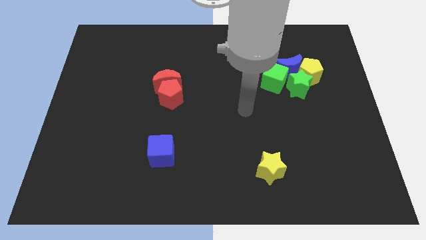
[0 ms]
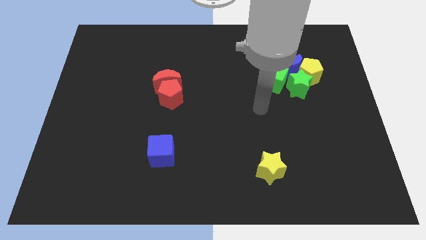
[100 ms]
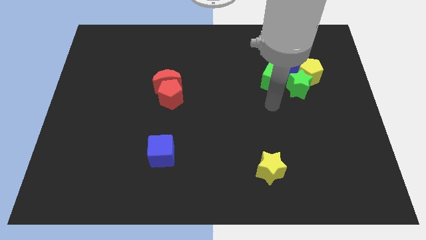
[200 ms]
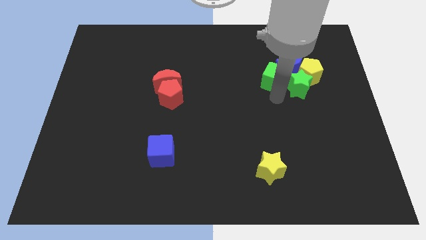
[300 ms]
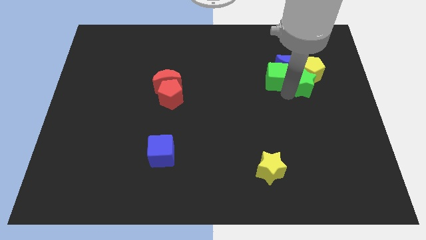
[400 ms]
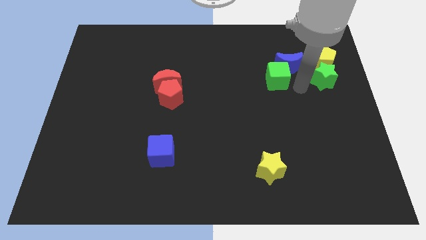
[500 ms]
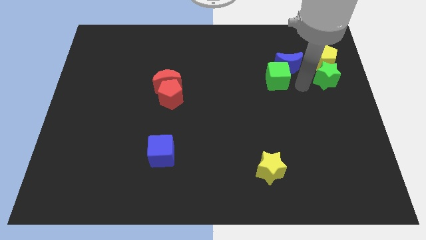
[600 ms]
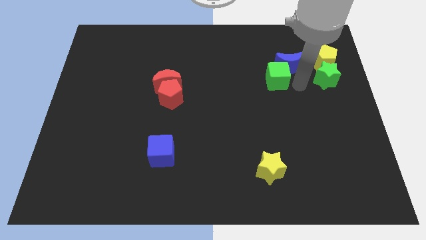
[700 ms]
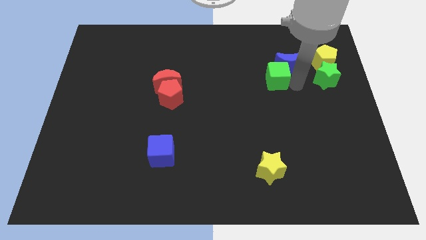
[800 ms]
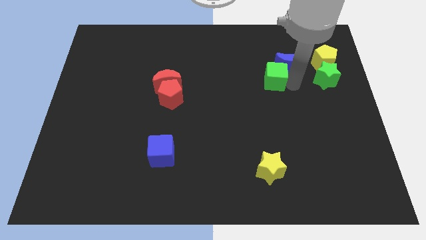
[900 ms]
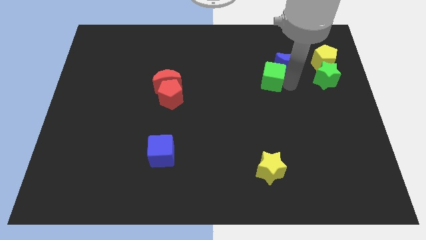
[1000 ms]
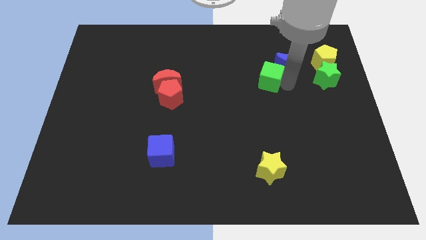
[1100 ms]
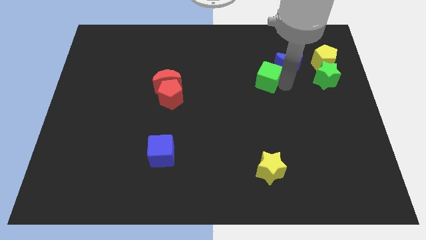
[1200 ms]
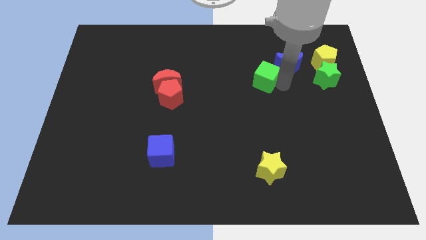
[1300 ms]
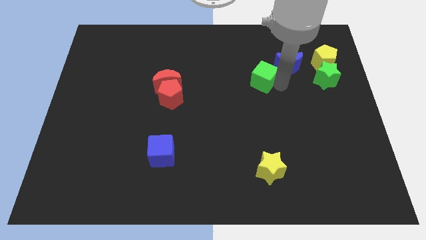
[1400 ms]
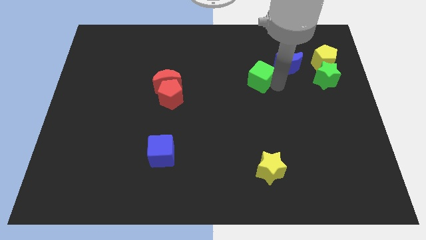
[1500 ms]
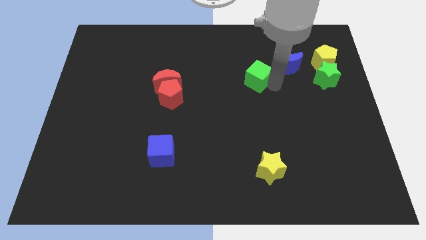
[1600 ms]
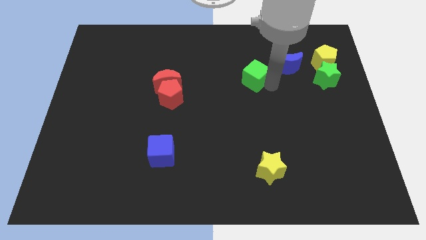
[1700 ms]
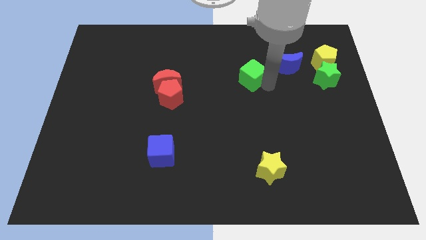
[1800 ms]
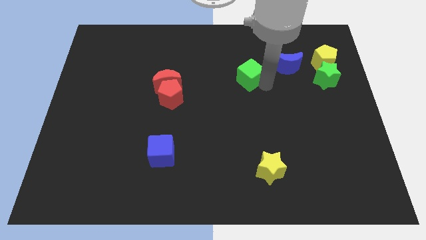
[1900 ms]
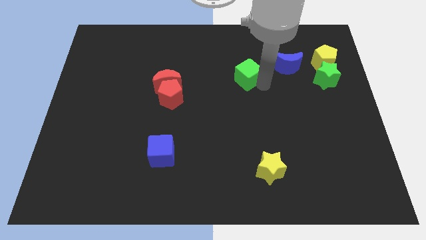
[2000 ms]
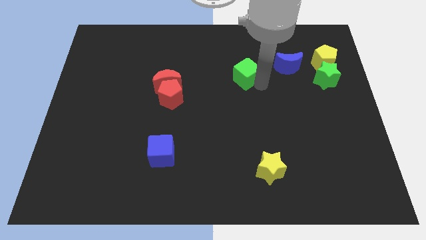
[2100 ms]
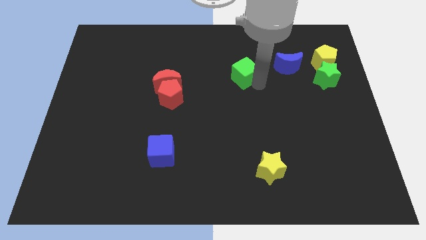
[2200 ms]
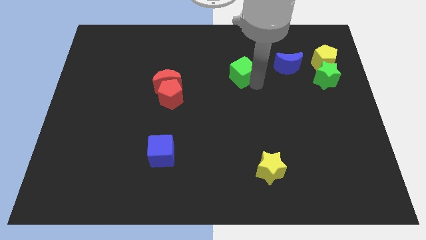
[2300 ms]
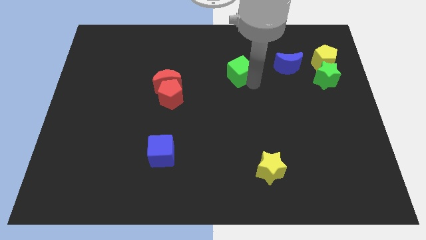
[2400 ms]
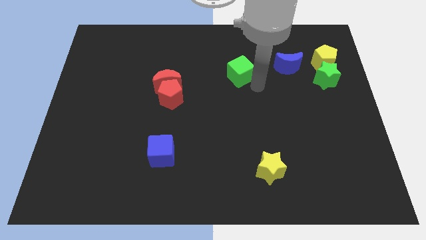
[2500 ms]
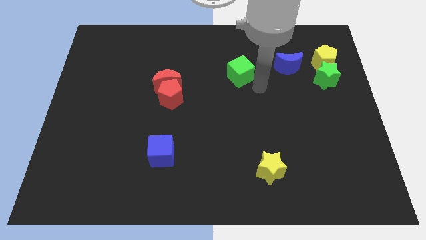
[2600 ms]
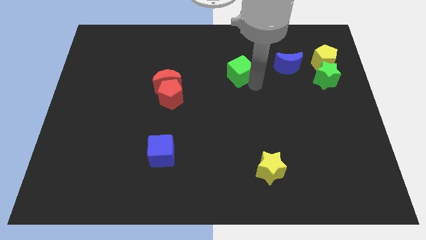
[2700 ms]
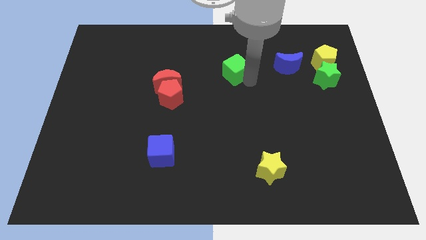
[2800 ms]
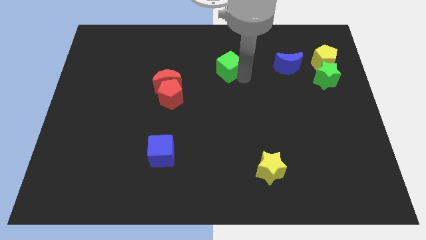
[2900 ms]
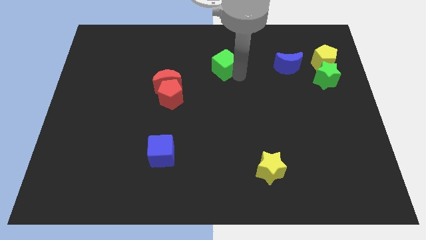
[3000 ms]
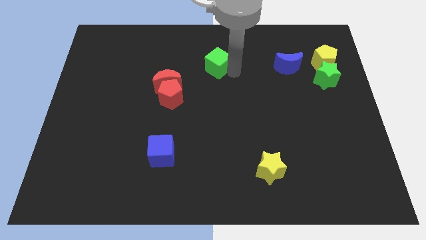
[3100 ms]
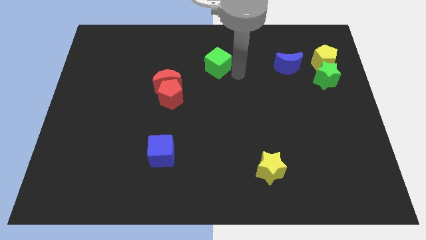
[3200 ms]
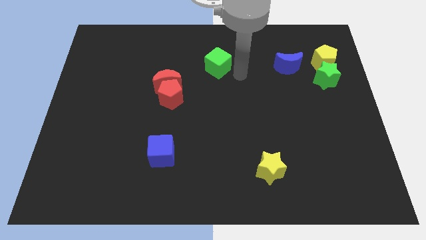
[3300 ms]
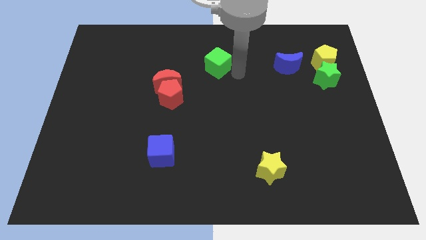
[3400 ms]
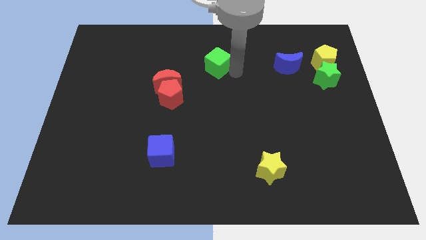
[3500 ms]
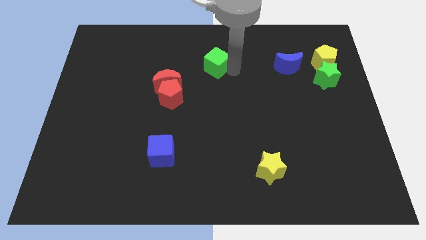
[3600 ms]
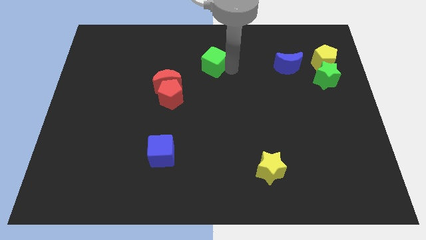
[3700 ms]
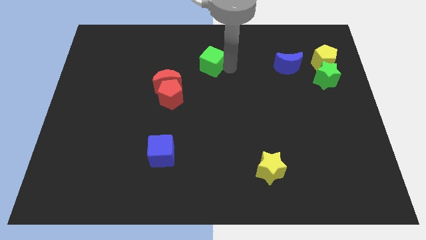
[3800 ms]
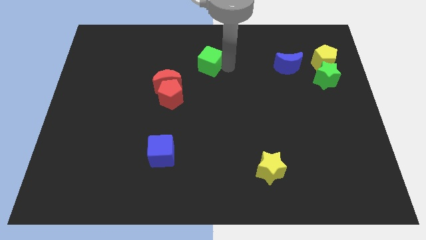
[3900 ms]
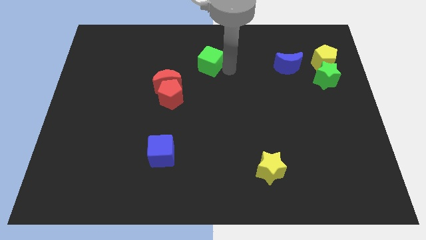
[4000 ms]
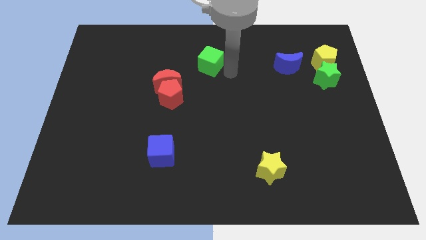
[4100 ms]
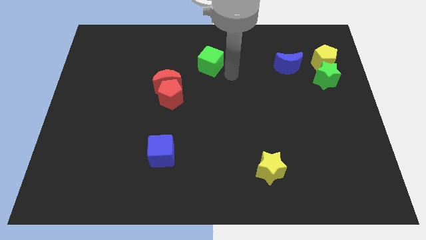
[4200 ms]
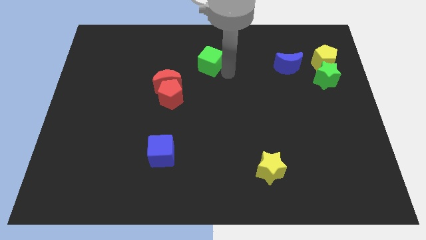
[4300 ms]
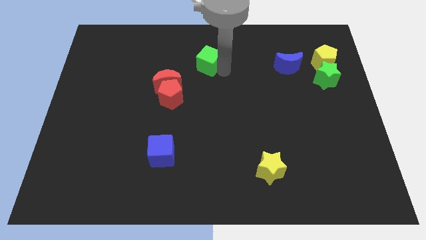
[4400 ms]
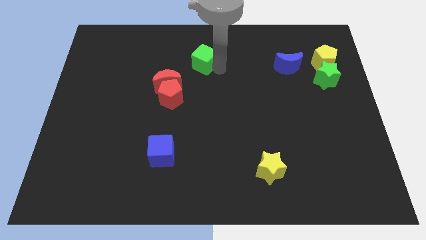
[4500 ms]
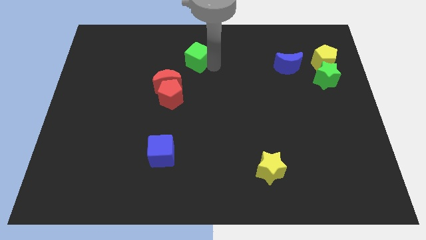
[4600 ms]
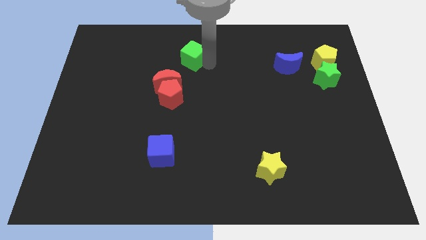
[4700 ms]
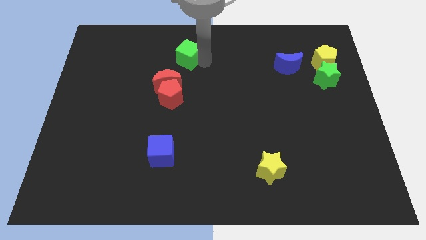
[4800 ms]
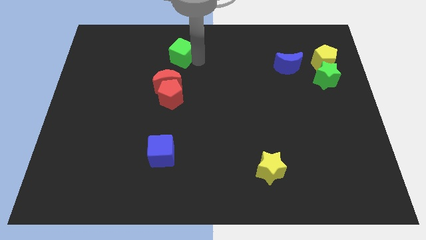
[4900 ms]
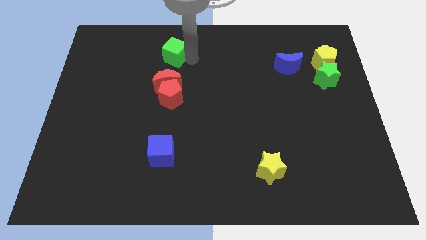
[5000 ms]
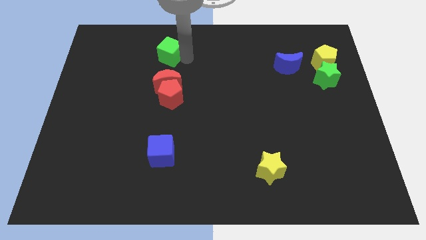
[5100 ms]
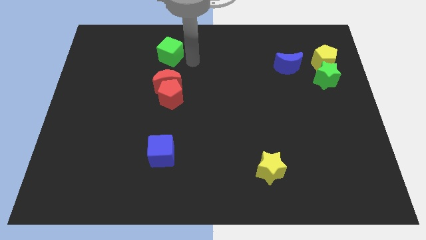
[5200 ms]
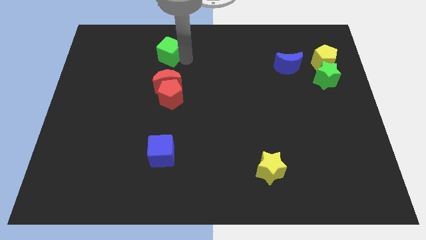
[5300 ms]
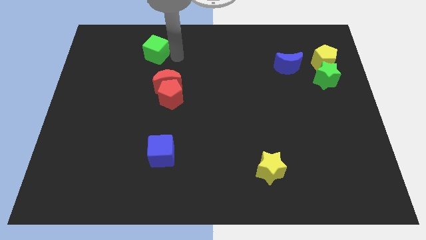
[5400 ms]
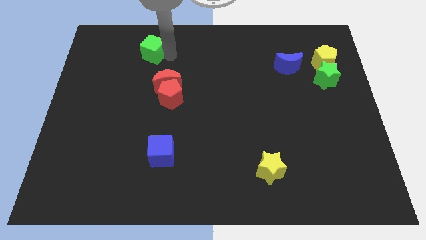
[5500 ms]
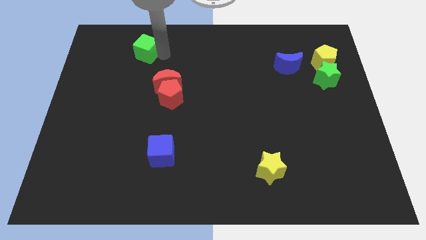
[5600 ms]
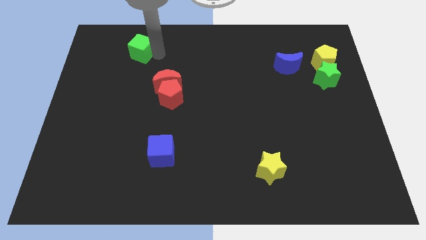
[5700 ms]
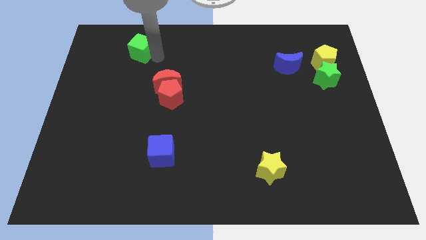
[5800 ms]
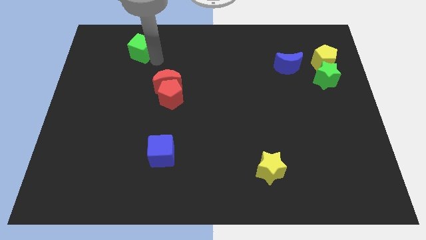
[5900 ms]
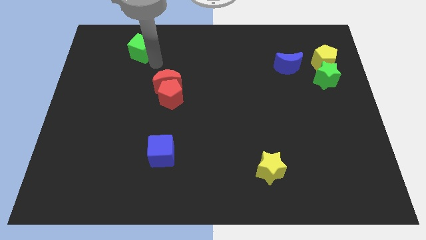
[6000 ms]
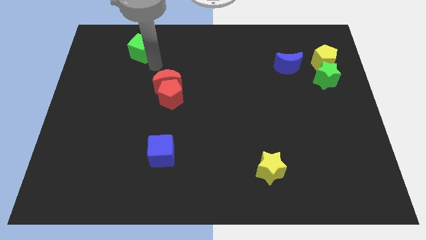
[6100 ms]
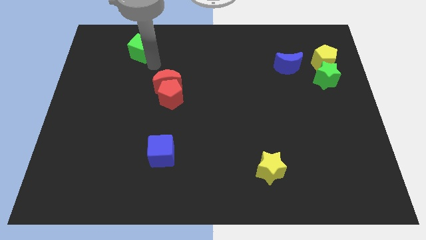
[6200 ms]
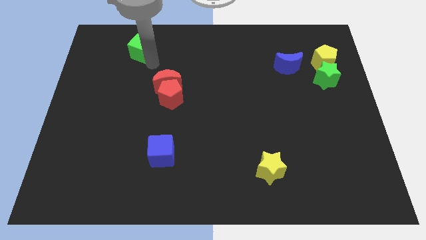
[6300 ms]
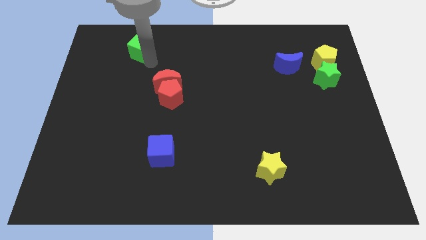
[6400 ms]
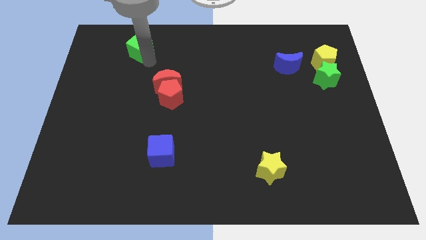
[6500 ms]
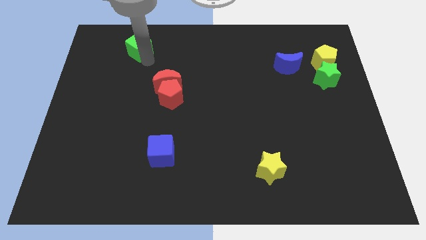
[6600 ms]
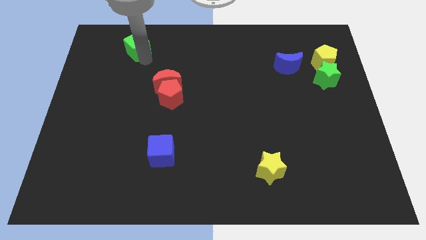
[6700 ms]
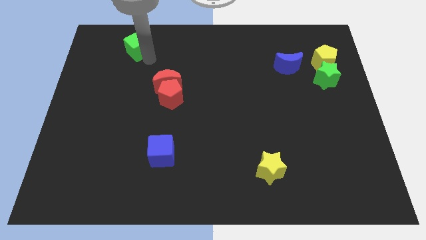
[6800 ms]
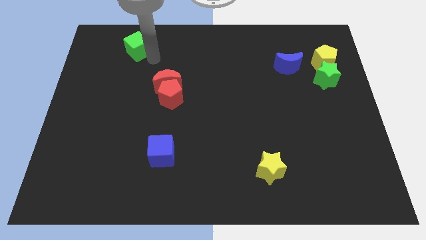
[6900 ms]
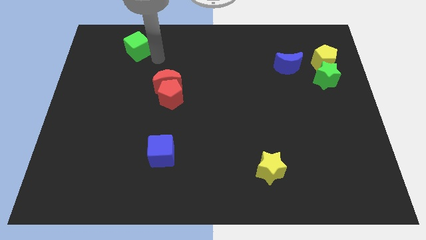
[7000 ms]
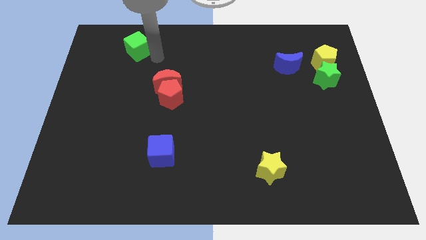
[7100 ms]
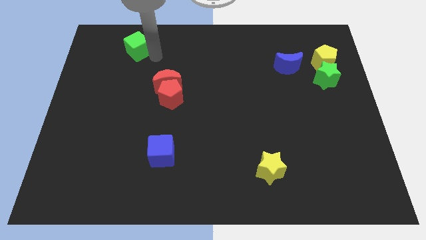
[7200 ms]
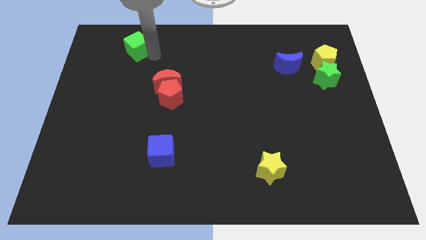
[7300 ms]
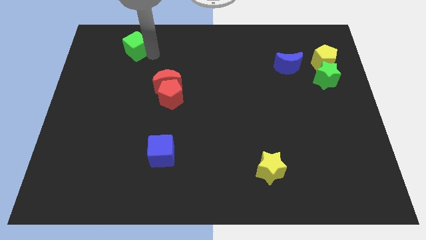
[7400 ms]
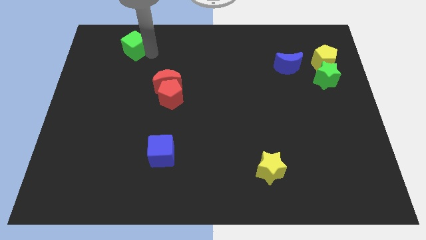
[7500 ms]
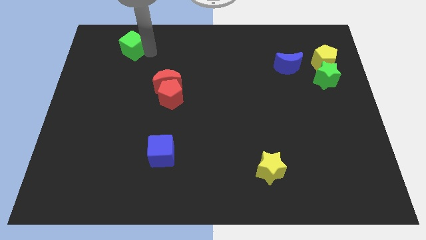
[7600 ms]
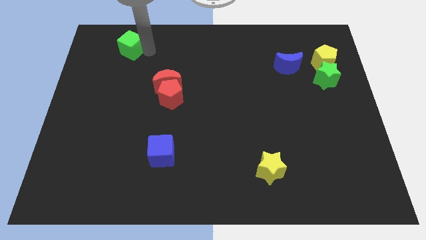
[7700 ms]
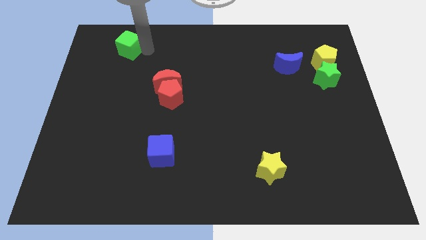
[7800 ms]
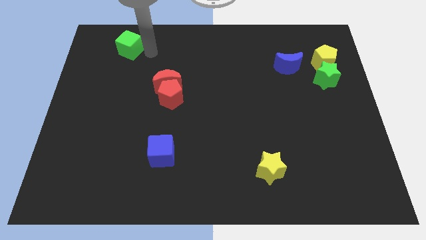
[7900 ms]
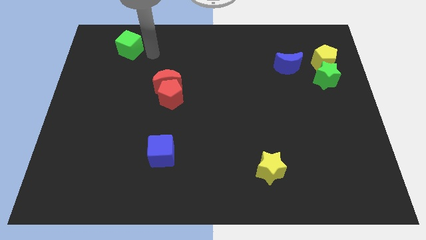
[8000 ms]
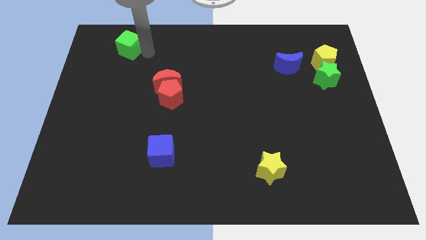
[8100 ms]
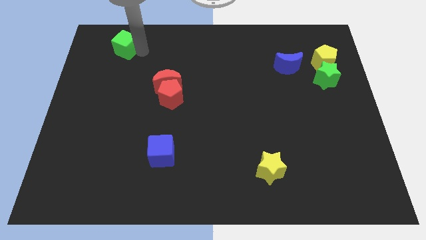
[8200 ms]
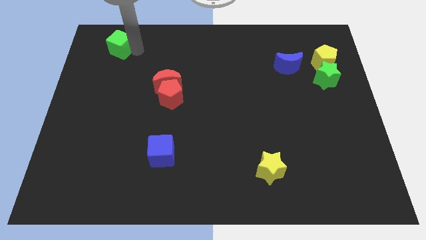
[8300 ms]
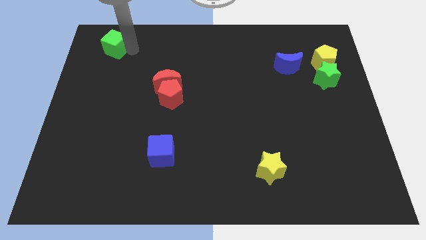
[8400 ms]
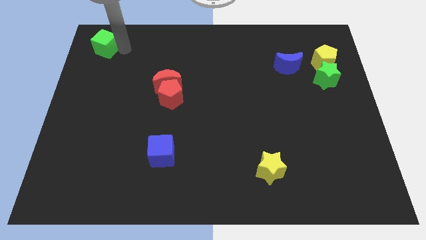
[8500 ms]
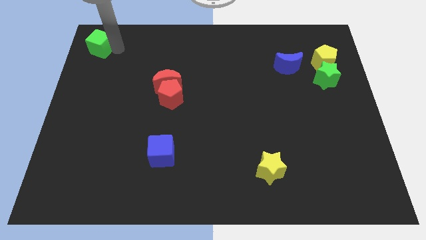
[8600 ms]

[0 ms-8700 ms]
slide the green cube to the upper left corner
